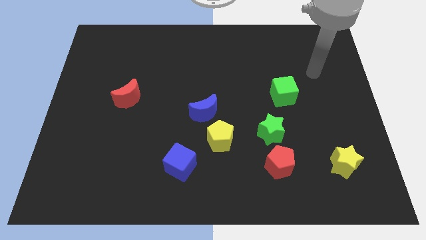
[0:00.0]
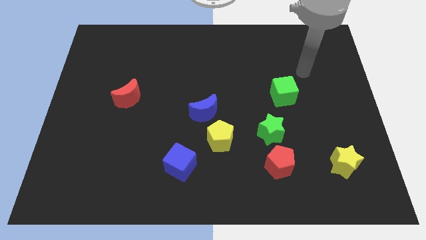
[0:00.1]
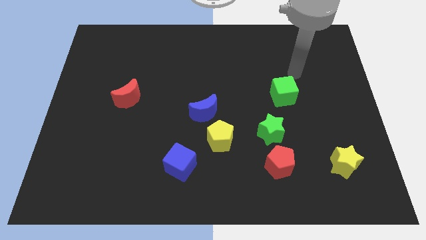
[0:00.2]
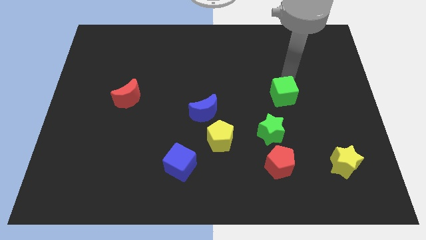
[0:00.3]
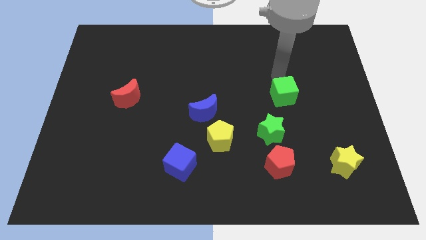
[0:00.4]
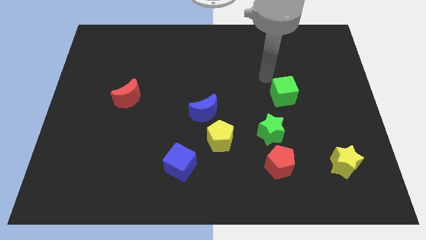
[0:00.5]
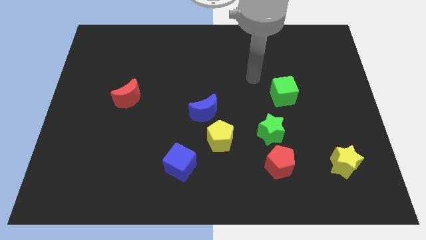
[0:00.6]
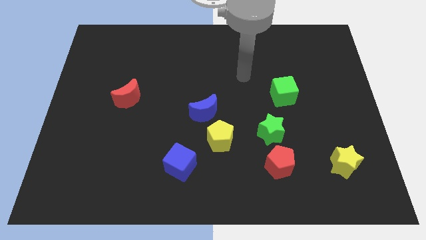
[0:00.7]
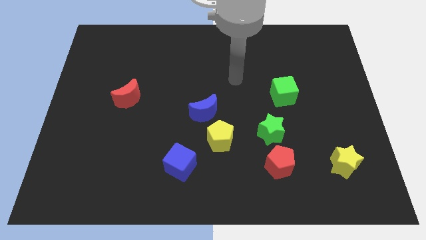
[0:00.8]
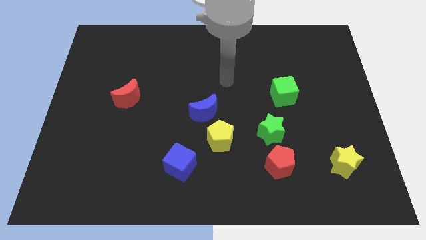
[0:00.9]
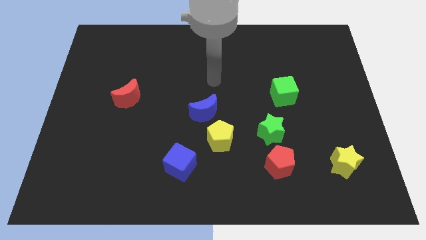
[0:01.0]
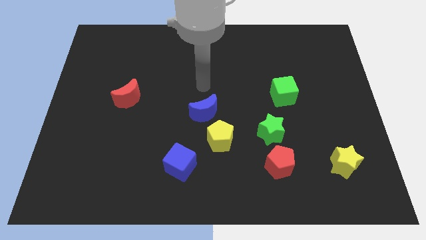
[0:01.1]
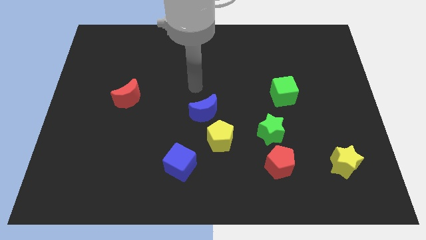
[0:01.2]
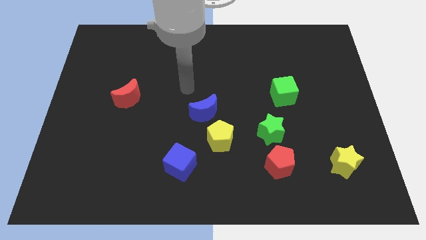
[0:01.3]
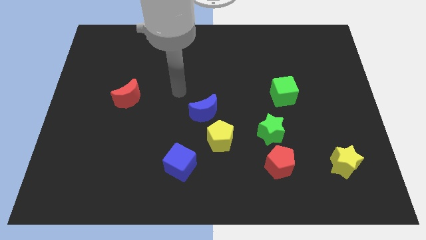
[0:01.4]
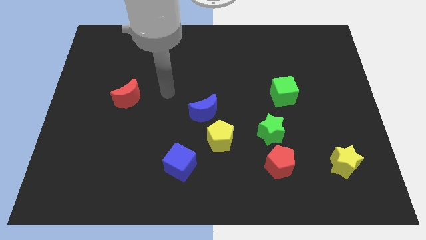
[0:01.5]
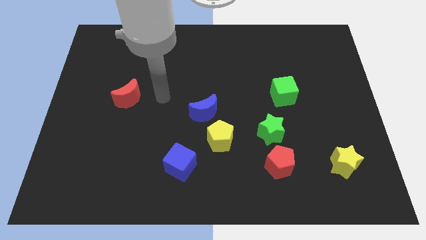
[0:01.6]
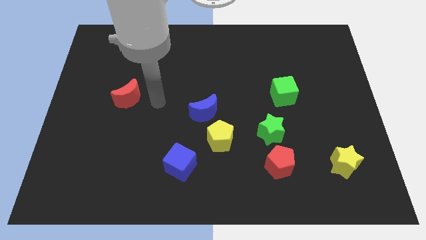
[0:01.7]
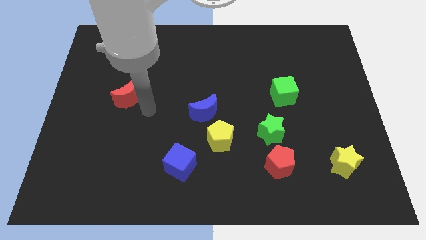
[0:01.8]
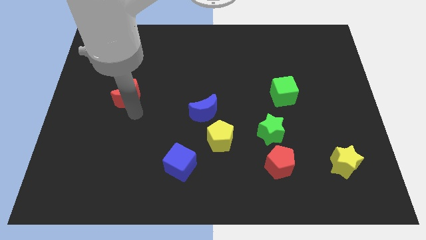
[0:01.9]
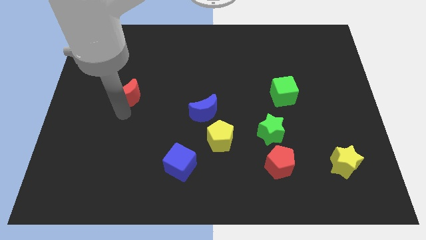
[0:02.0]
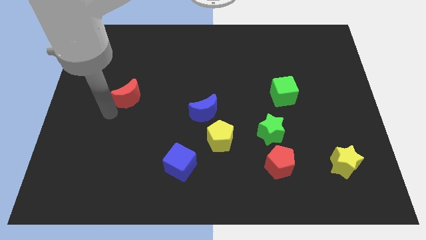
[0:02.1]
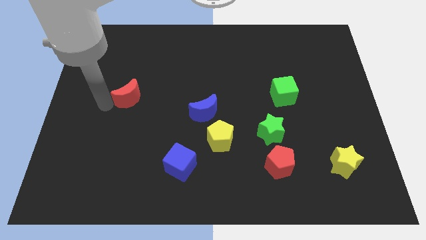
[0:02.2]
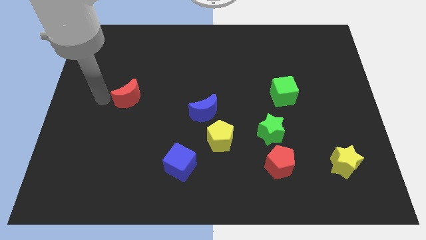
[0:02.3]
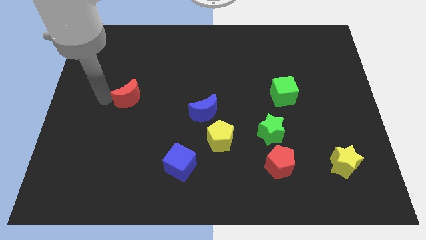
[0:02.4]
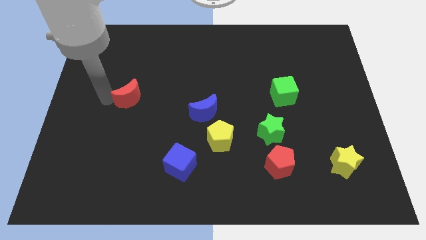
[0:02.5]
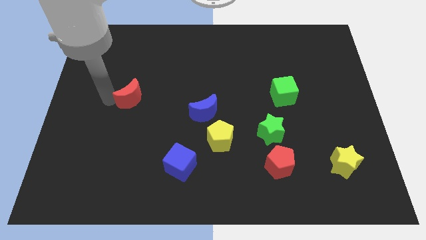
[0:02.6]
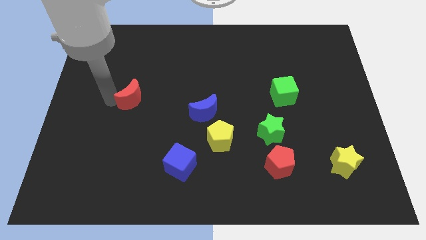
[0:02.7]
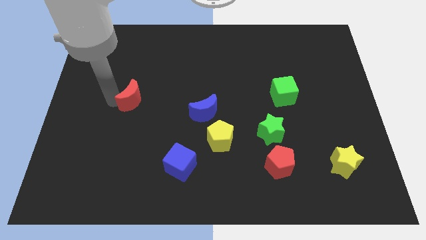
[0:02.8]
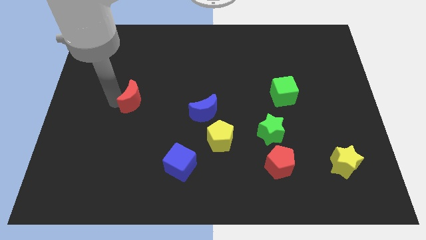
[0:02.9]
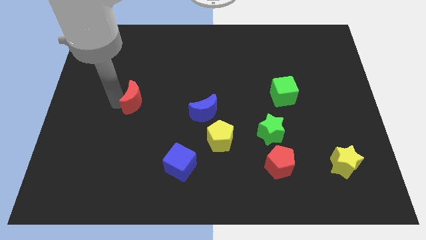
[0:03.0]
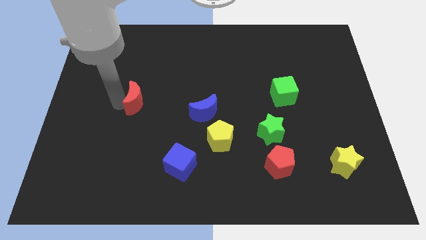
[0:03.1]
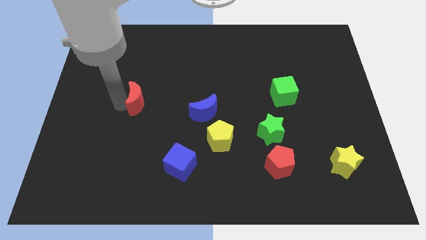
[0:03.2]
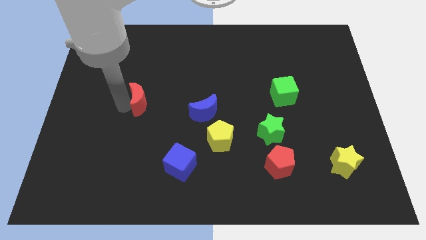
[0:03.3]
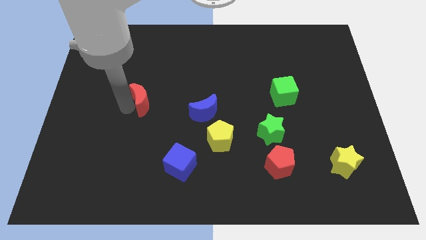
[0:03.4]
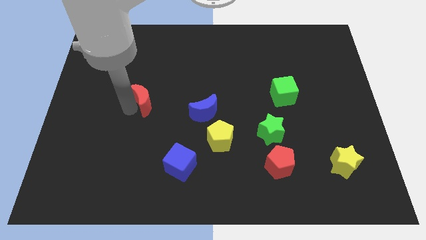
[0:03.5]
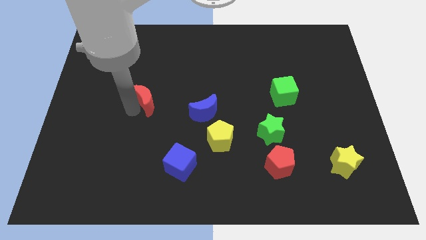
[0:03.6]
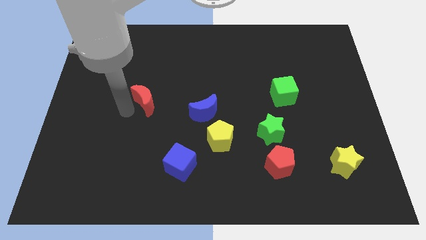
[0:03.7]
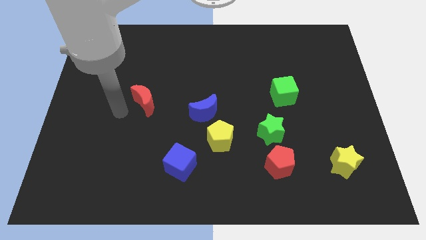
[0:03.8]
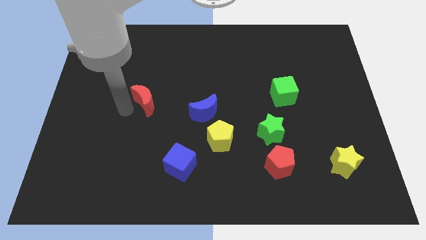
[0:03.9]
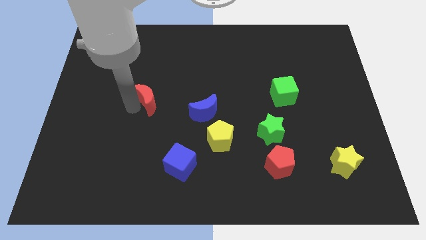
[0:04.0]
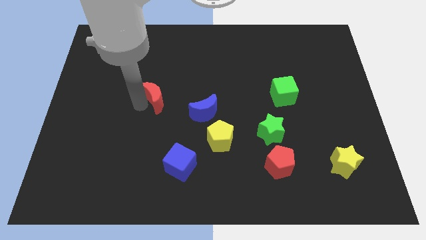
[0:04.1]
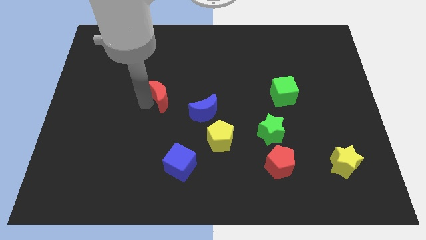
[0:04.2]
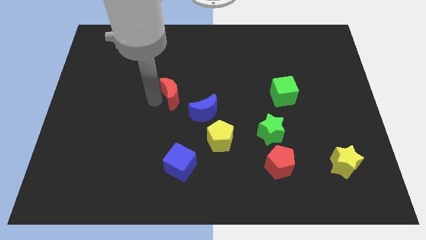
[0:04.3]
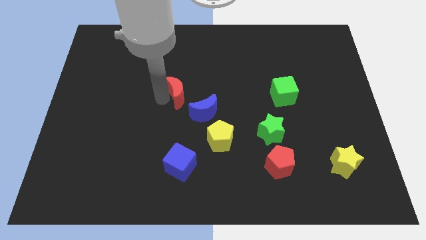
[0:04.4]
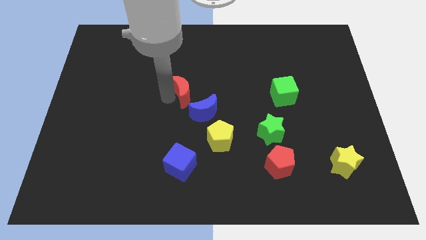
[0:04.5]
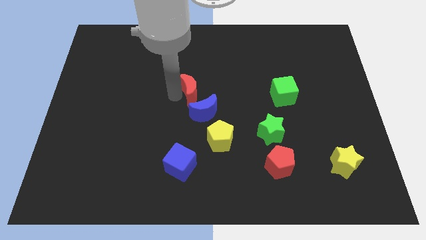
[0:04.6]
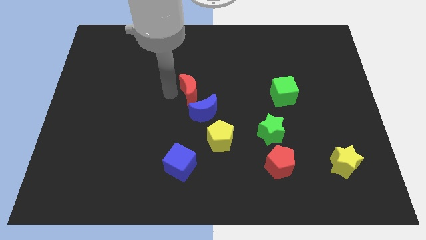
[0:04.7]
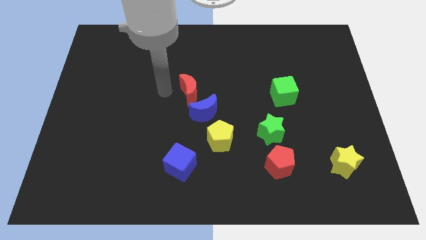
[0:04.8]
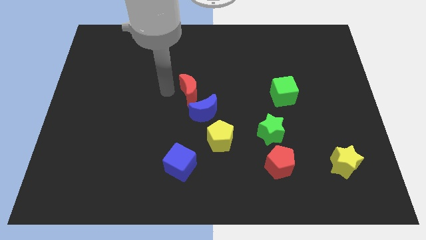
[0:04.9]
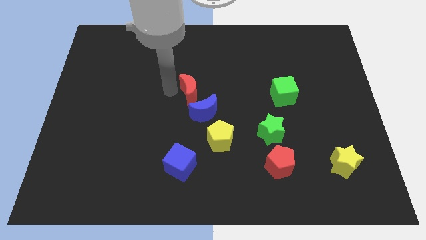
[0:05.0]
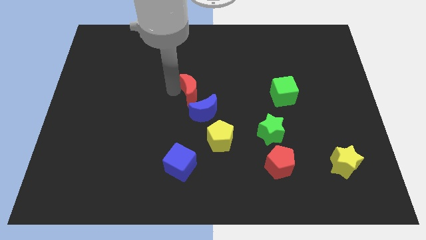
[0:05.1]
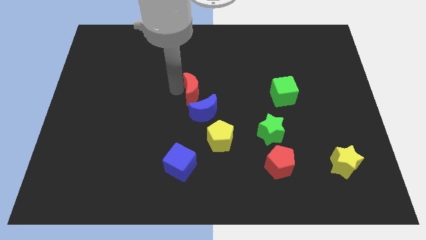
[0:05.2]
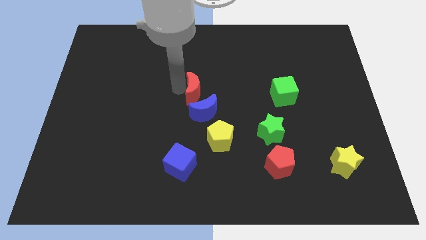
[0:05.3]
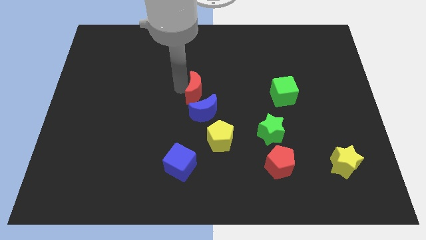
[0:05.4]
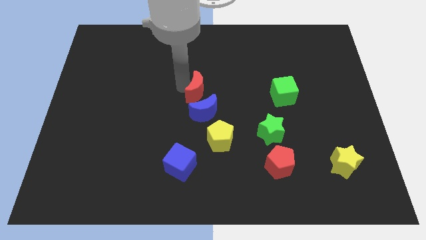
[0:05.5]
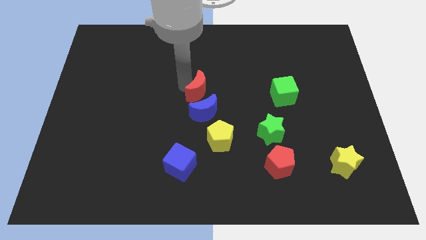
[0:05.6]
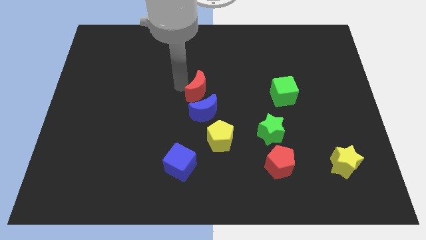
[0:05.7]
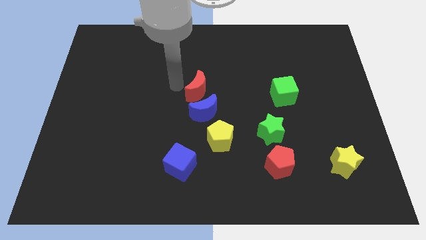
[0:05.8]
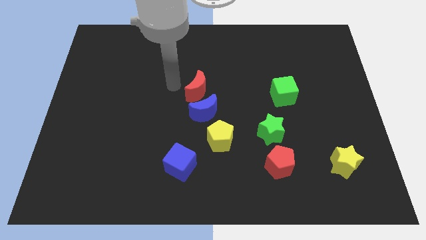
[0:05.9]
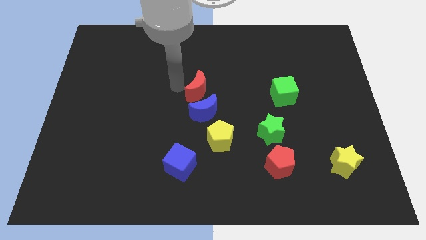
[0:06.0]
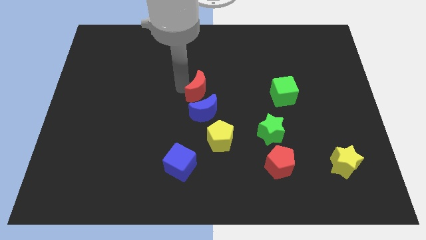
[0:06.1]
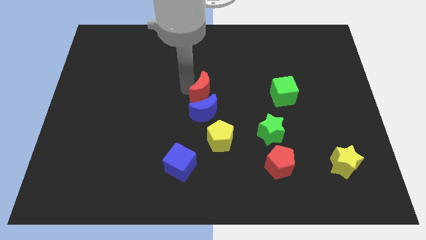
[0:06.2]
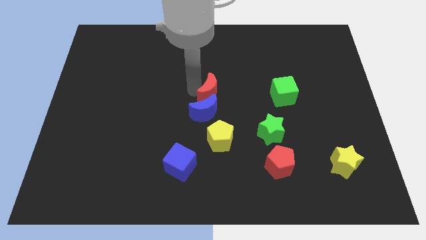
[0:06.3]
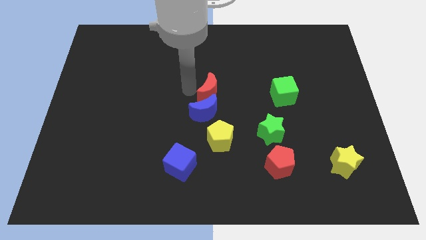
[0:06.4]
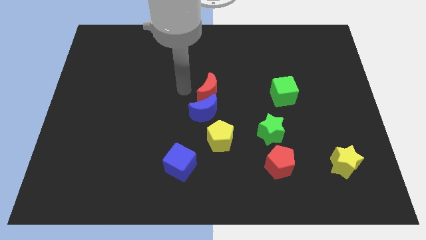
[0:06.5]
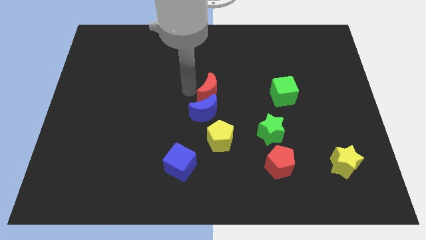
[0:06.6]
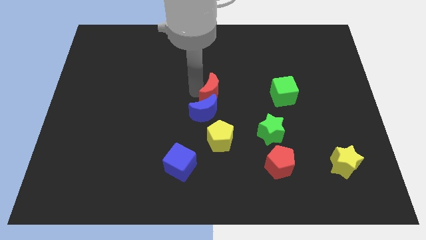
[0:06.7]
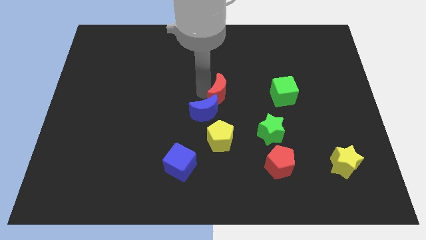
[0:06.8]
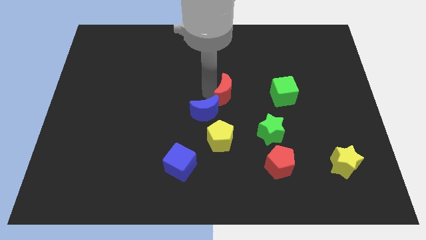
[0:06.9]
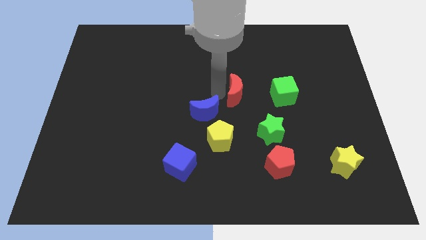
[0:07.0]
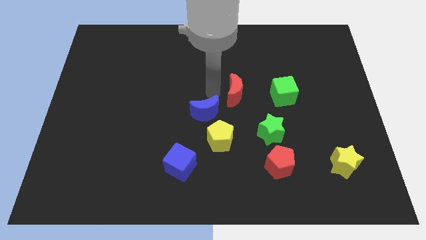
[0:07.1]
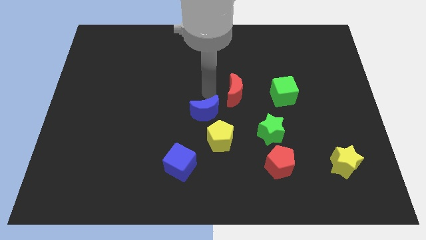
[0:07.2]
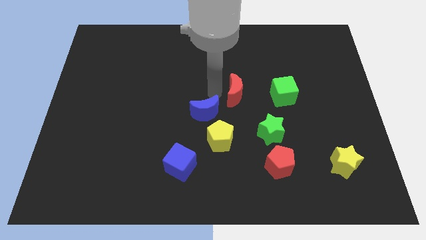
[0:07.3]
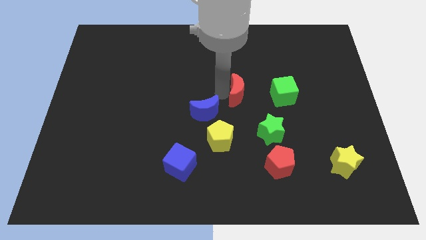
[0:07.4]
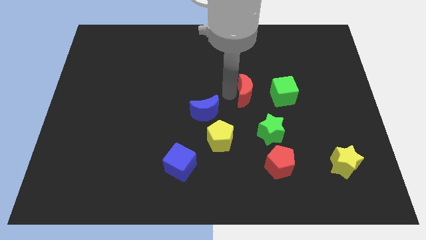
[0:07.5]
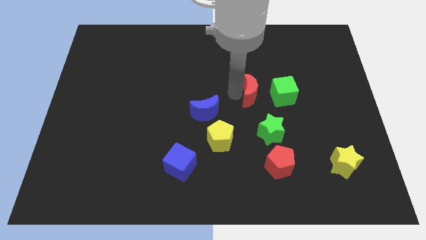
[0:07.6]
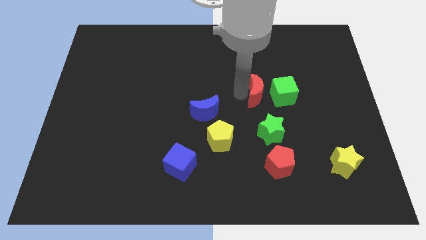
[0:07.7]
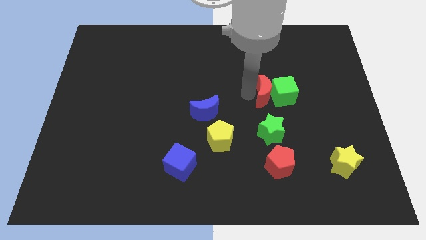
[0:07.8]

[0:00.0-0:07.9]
slide the red moon next to the green cube

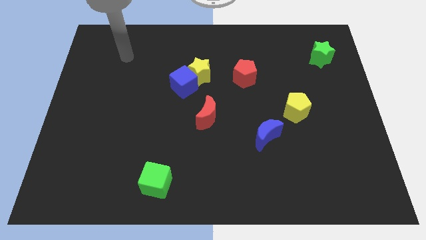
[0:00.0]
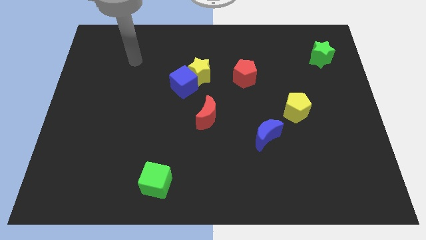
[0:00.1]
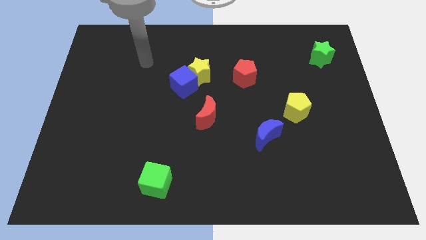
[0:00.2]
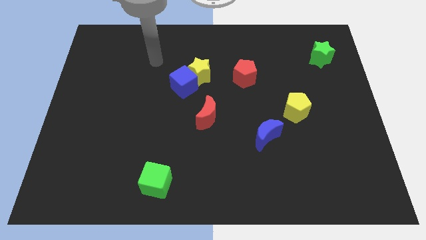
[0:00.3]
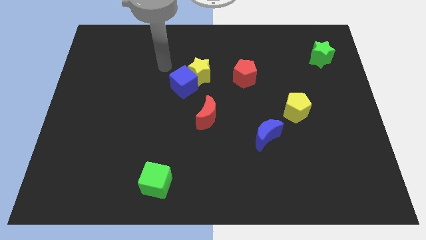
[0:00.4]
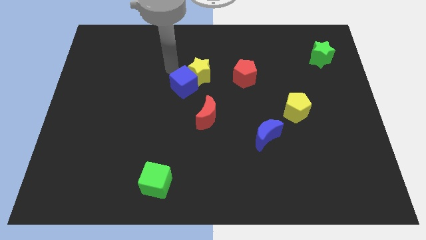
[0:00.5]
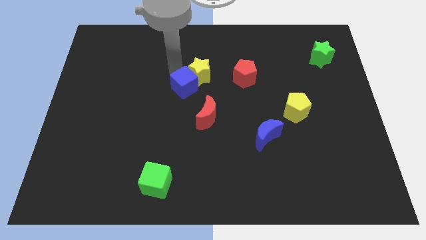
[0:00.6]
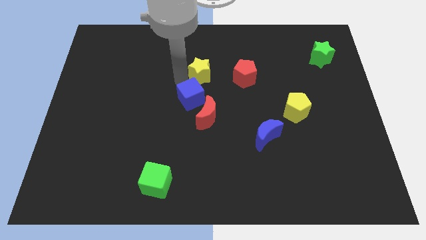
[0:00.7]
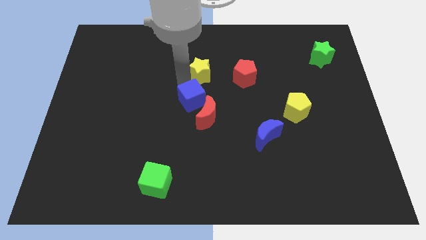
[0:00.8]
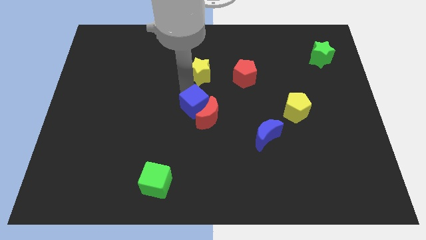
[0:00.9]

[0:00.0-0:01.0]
move the blue cube to the red moon
